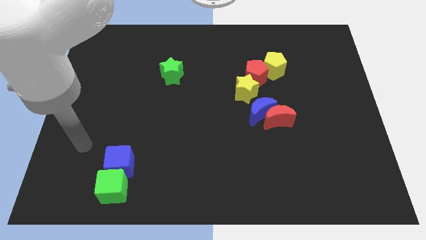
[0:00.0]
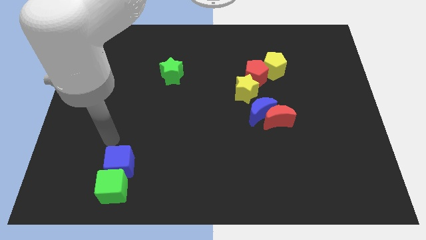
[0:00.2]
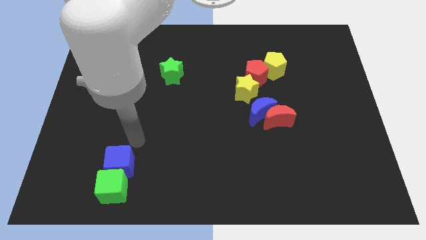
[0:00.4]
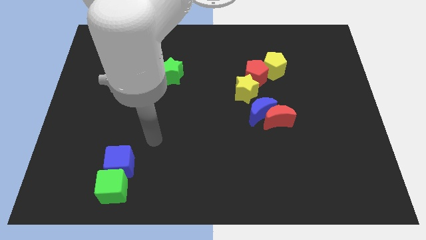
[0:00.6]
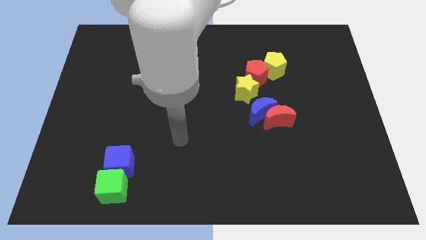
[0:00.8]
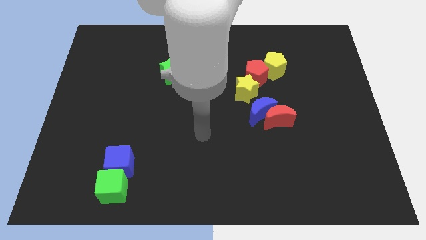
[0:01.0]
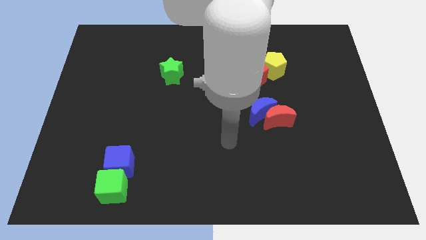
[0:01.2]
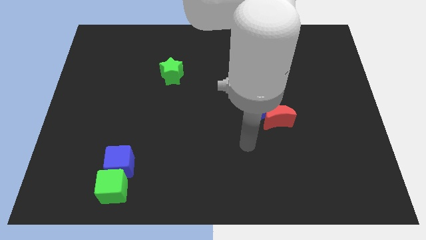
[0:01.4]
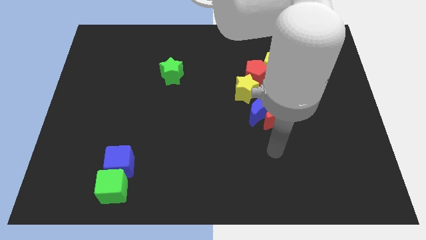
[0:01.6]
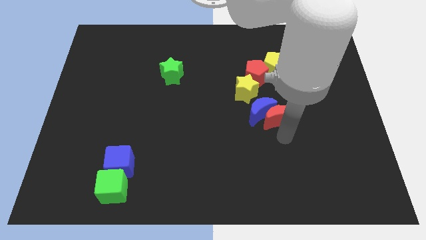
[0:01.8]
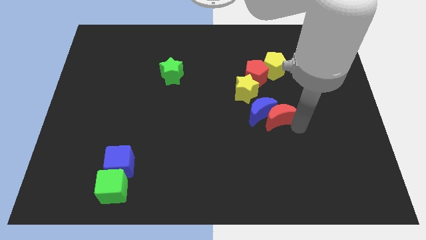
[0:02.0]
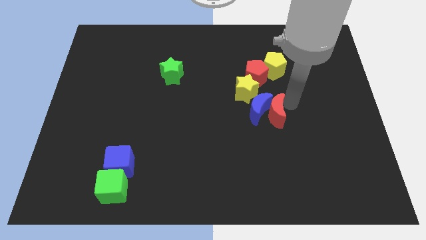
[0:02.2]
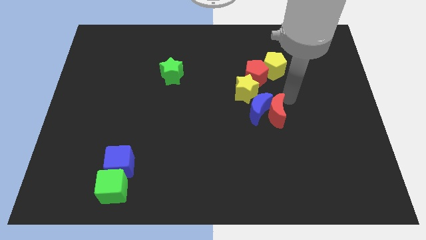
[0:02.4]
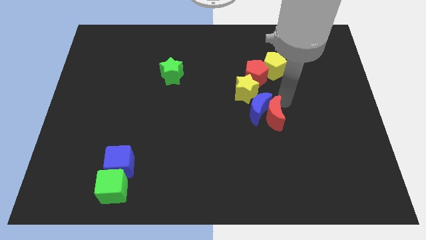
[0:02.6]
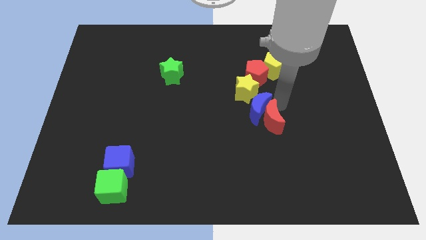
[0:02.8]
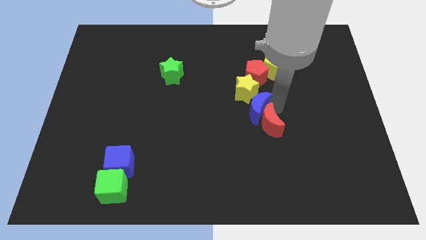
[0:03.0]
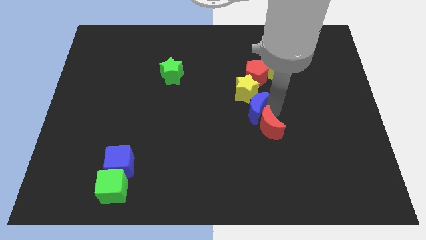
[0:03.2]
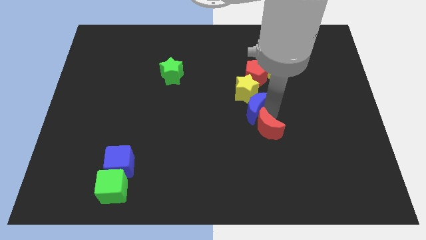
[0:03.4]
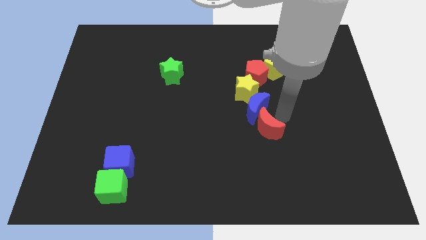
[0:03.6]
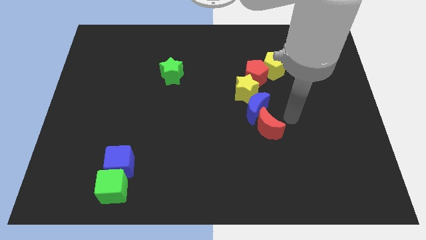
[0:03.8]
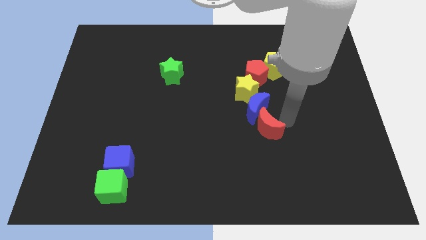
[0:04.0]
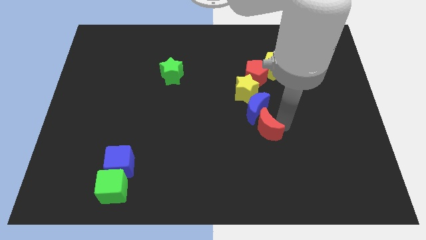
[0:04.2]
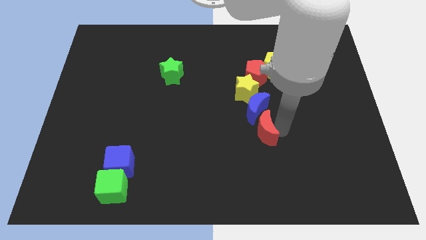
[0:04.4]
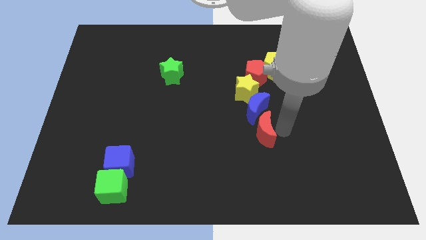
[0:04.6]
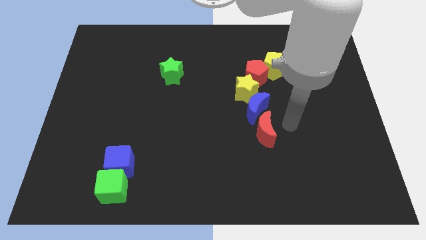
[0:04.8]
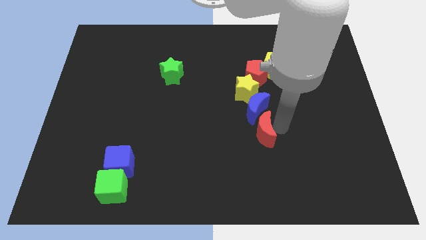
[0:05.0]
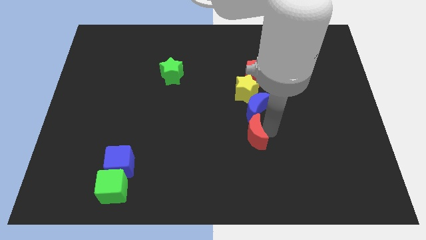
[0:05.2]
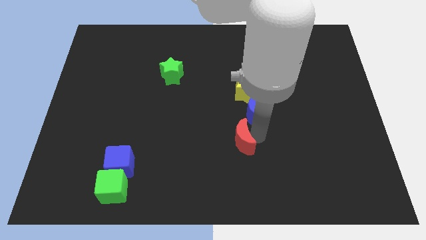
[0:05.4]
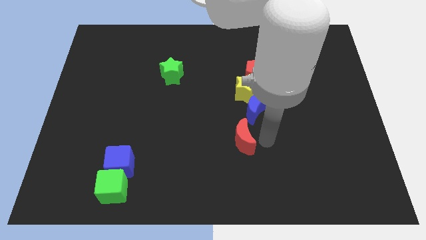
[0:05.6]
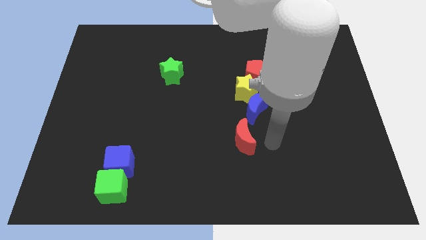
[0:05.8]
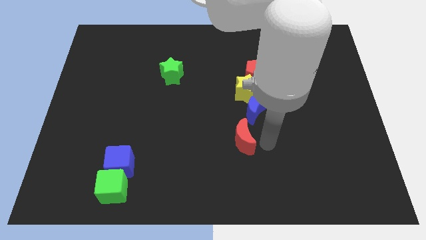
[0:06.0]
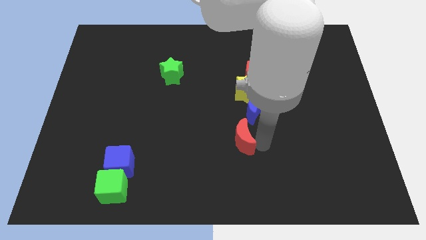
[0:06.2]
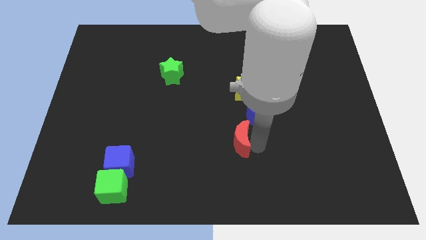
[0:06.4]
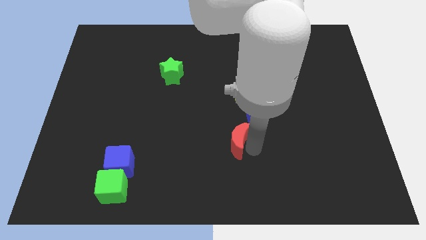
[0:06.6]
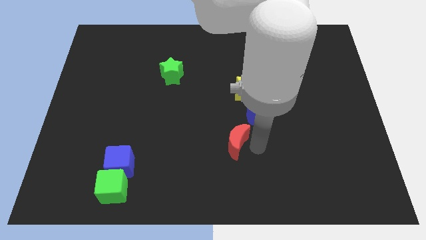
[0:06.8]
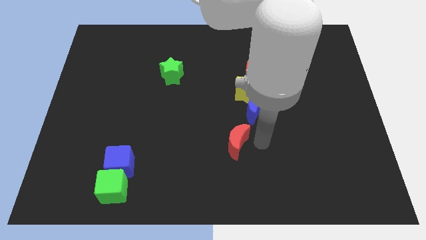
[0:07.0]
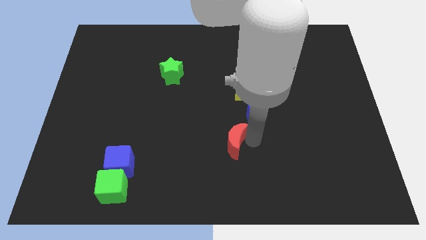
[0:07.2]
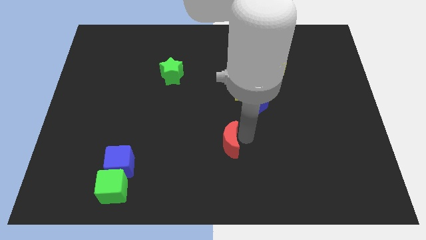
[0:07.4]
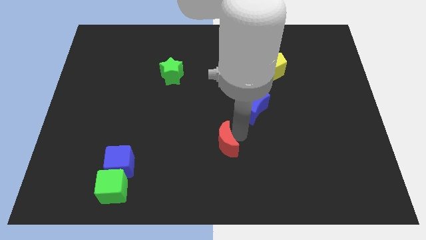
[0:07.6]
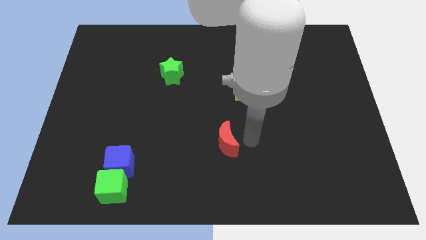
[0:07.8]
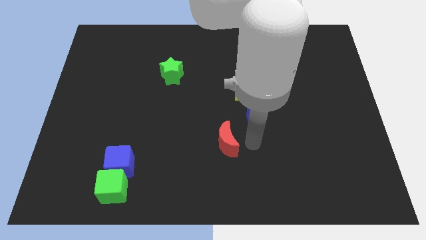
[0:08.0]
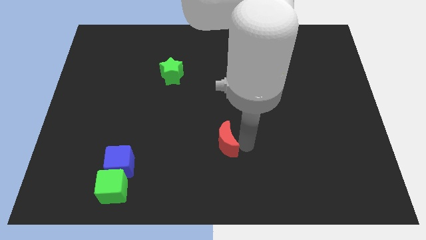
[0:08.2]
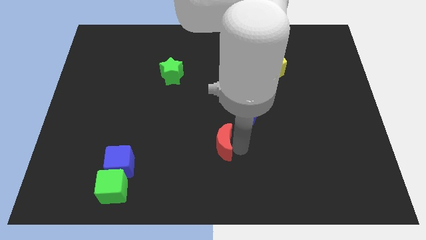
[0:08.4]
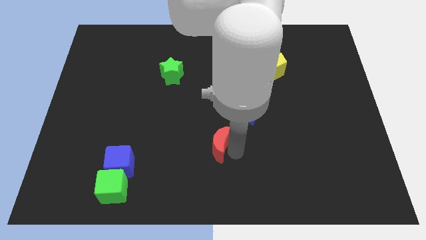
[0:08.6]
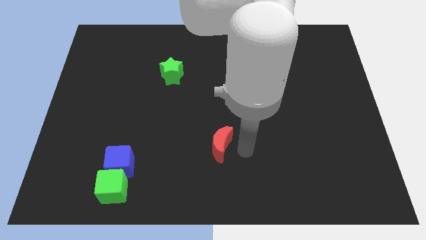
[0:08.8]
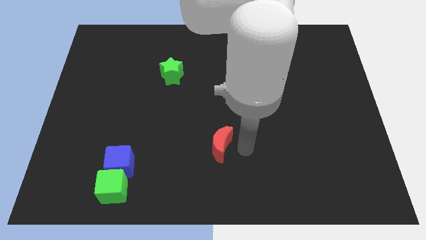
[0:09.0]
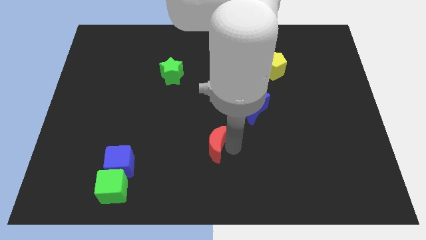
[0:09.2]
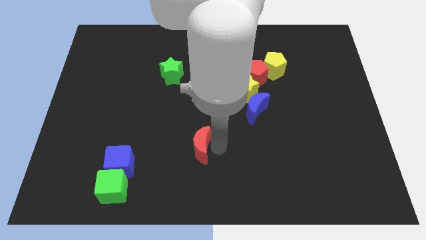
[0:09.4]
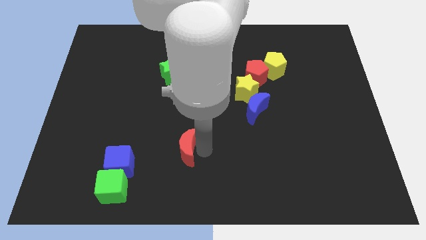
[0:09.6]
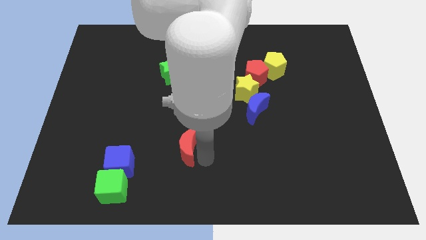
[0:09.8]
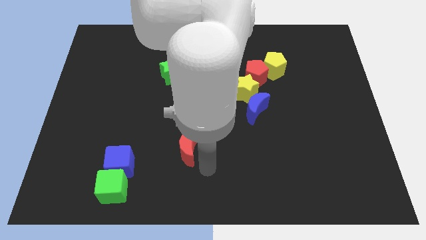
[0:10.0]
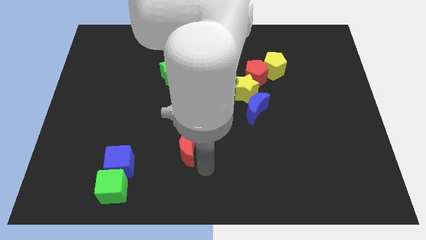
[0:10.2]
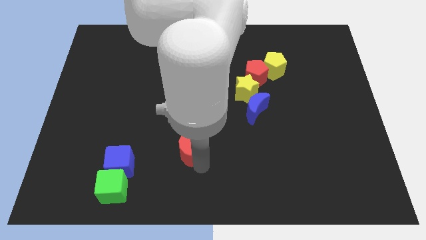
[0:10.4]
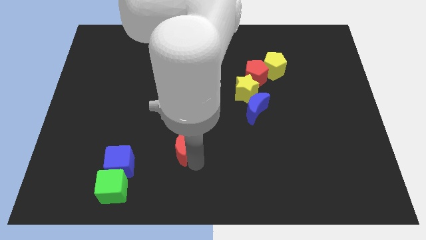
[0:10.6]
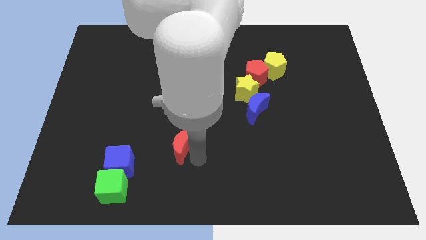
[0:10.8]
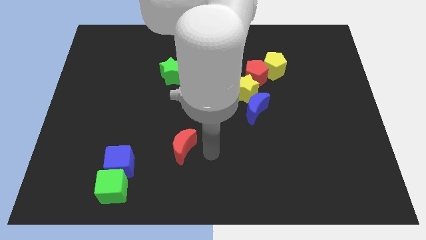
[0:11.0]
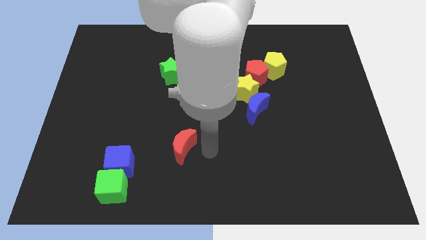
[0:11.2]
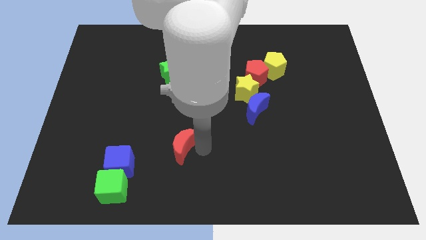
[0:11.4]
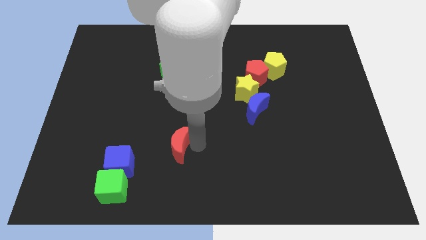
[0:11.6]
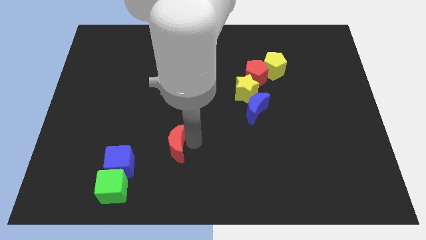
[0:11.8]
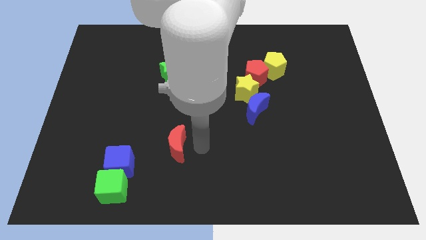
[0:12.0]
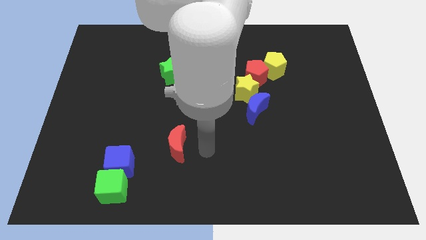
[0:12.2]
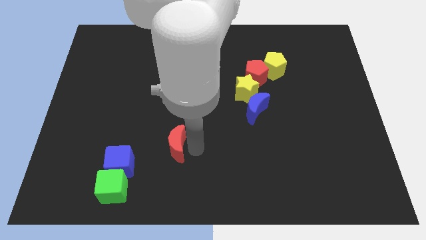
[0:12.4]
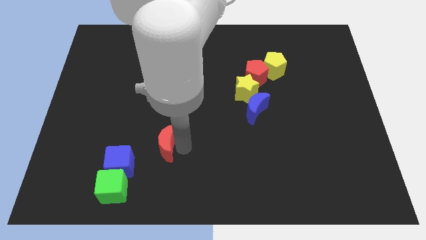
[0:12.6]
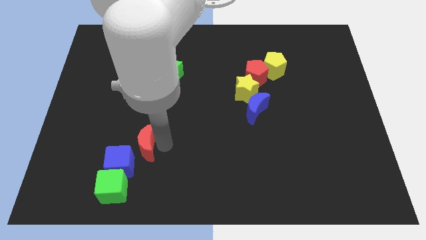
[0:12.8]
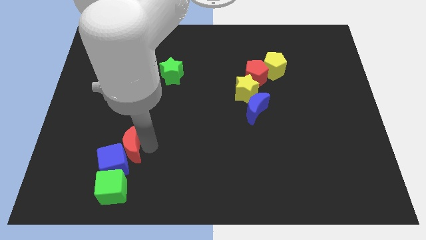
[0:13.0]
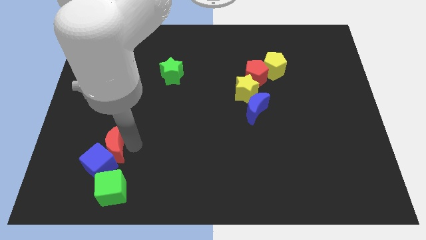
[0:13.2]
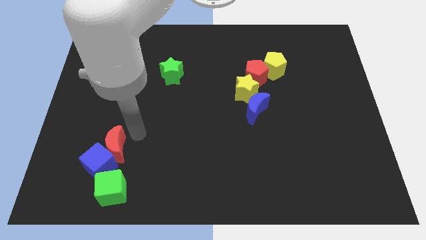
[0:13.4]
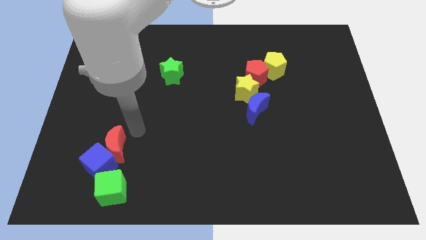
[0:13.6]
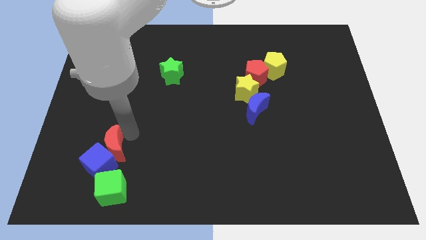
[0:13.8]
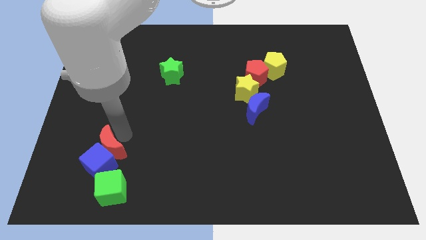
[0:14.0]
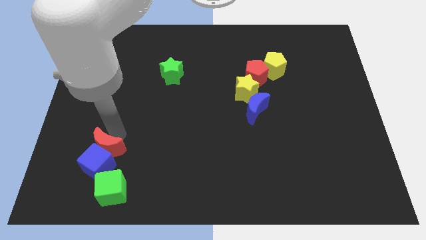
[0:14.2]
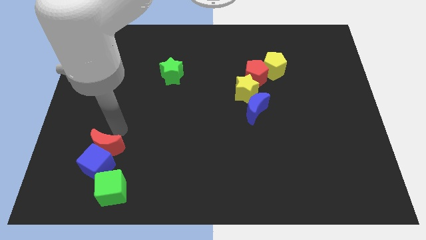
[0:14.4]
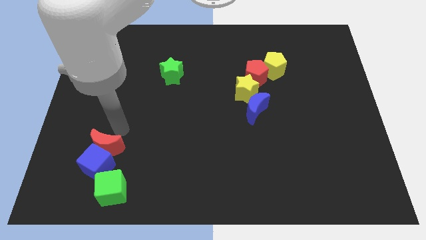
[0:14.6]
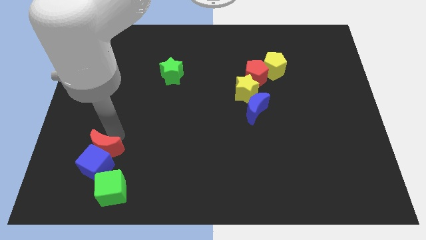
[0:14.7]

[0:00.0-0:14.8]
push the red moon to the top left of the green cube
